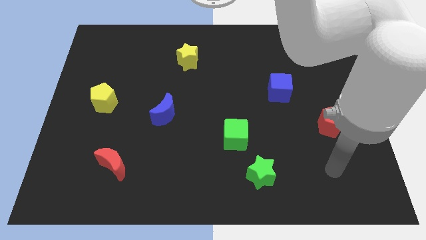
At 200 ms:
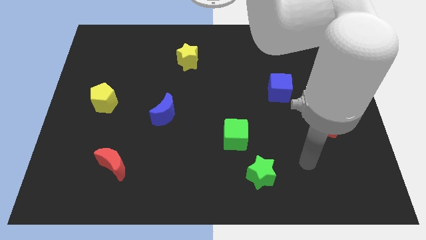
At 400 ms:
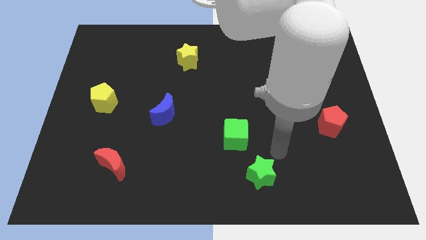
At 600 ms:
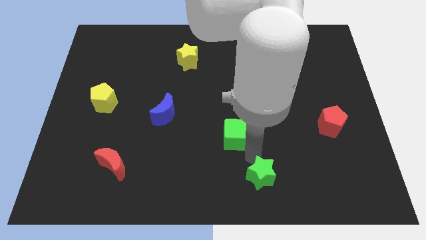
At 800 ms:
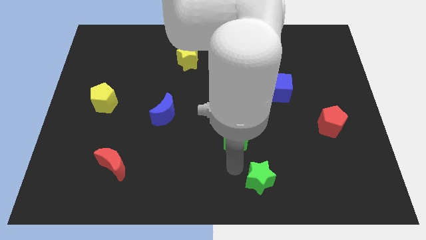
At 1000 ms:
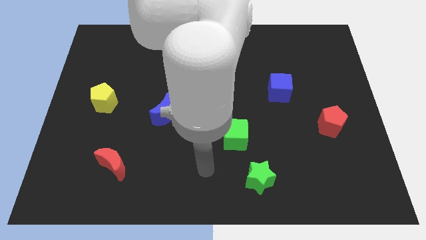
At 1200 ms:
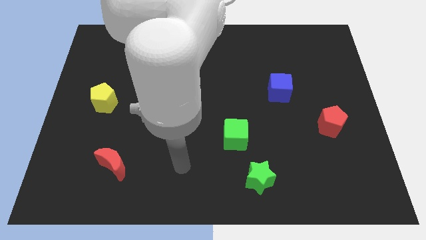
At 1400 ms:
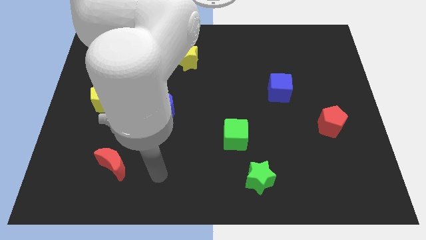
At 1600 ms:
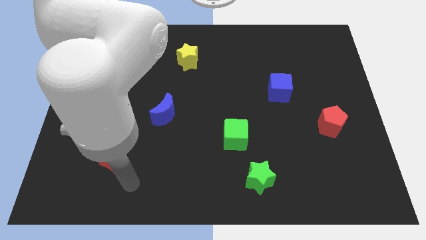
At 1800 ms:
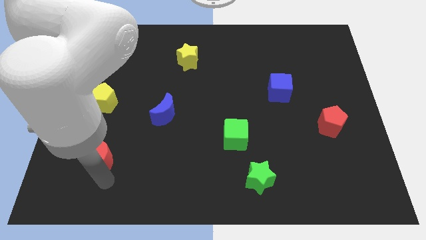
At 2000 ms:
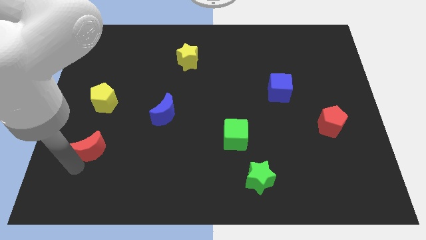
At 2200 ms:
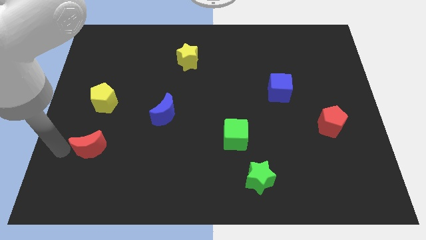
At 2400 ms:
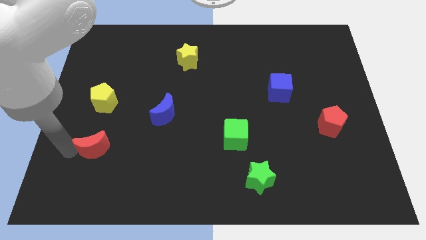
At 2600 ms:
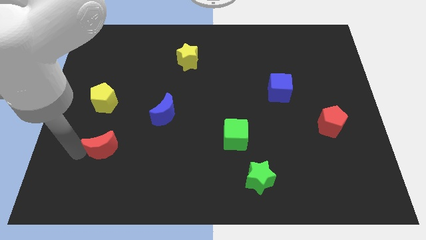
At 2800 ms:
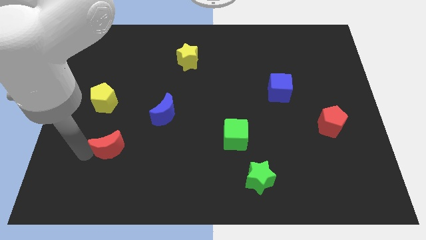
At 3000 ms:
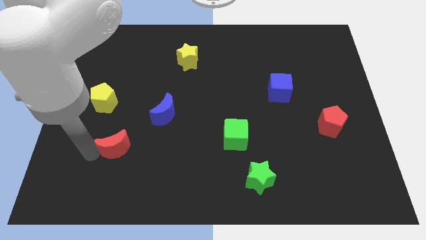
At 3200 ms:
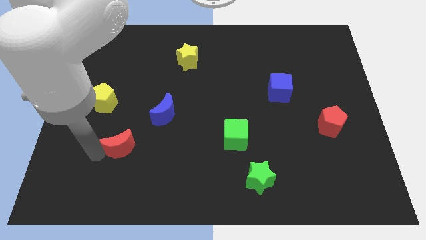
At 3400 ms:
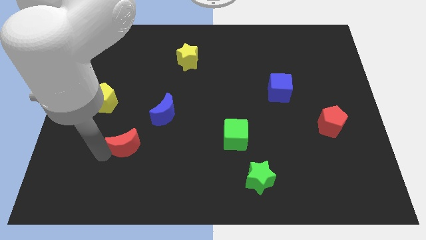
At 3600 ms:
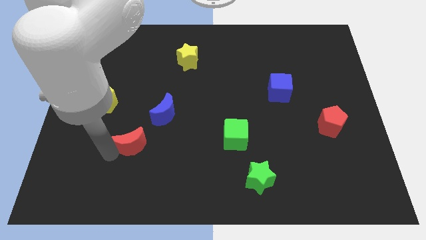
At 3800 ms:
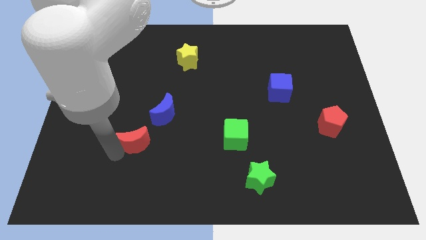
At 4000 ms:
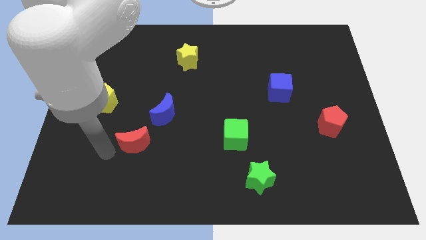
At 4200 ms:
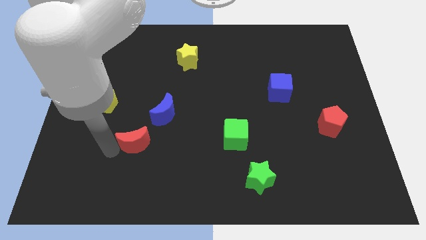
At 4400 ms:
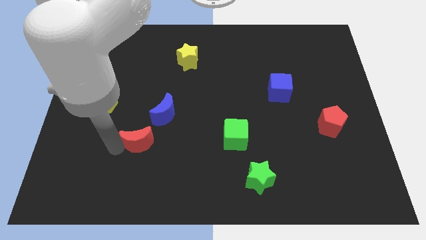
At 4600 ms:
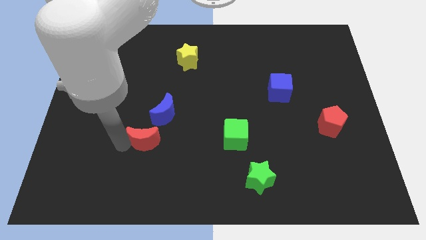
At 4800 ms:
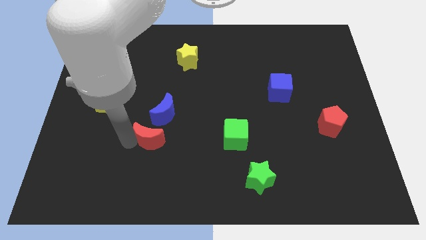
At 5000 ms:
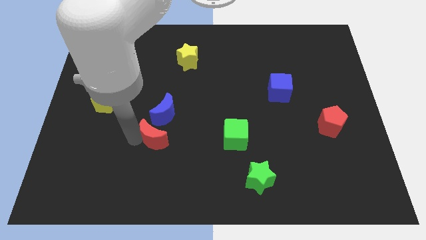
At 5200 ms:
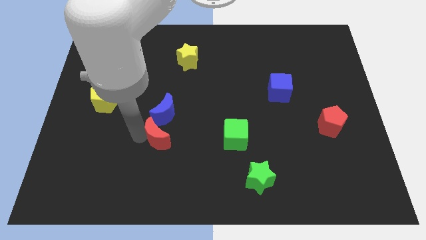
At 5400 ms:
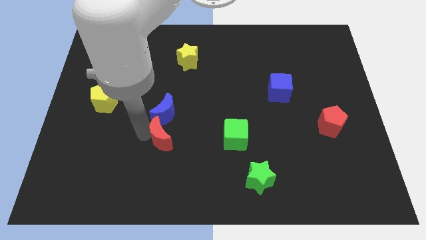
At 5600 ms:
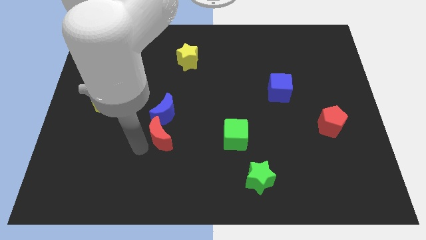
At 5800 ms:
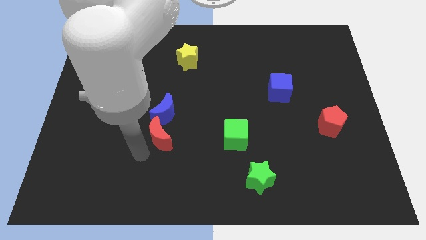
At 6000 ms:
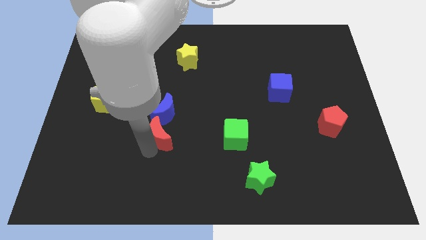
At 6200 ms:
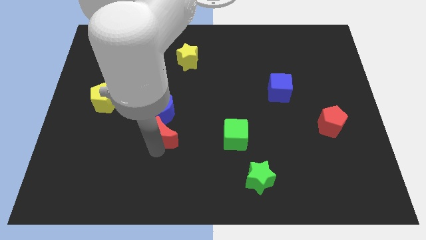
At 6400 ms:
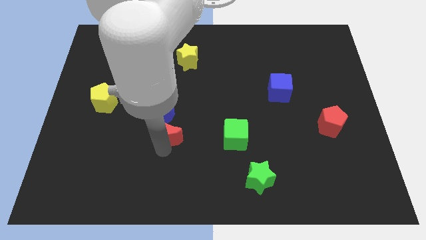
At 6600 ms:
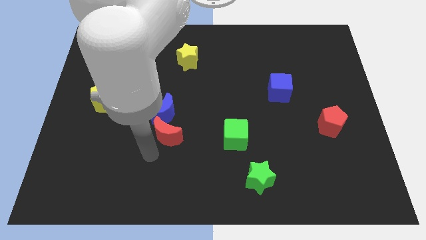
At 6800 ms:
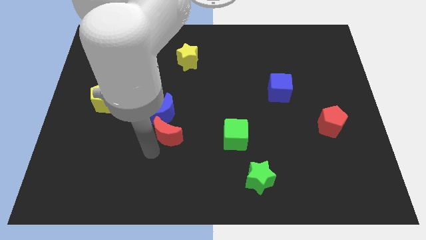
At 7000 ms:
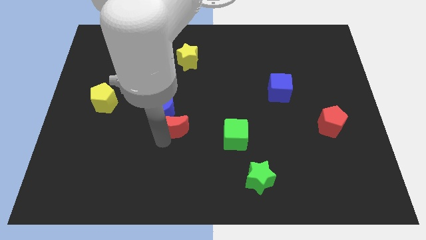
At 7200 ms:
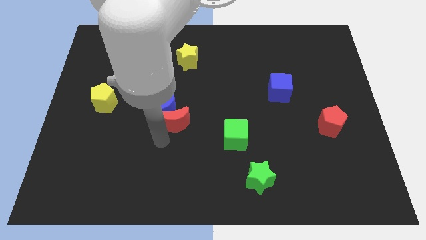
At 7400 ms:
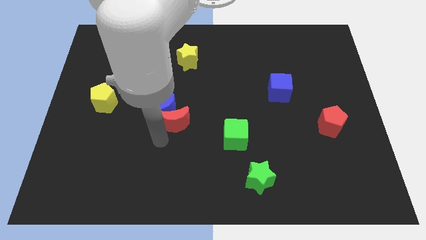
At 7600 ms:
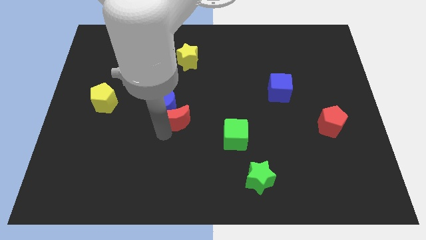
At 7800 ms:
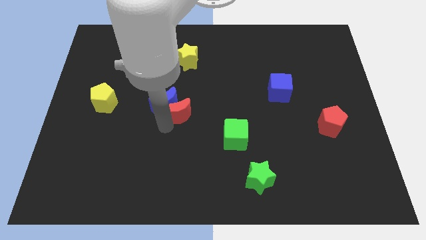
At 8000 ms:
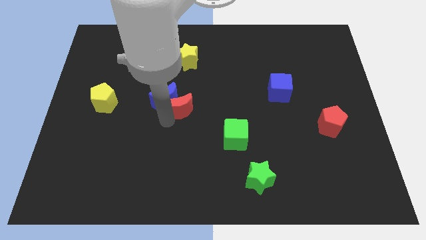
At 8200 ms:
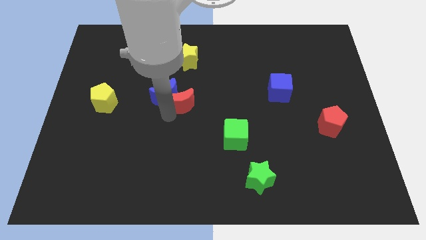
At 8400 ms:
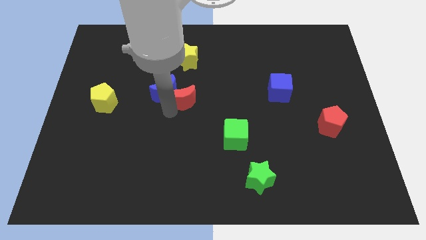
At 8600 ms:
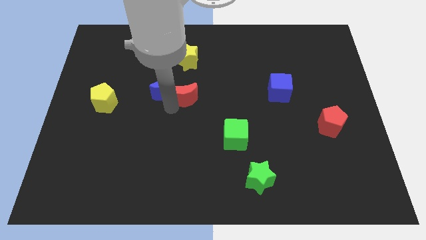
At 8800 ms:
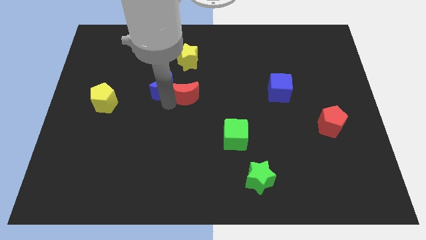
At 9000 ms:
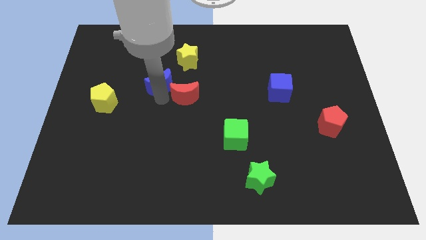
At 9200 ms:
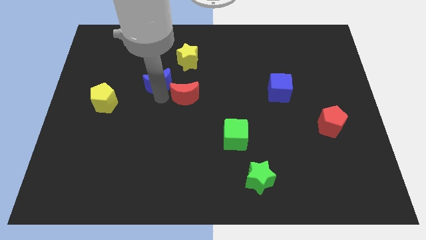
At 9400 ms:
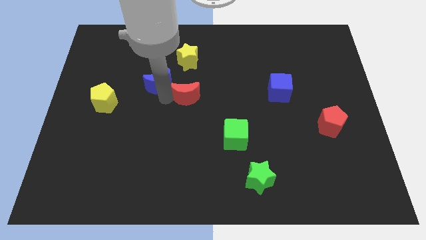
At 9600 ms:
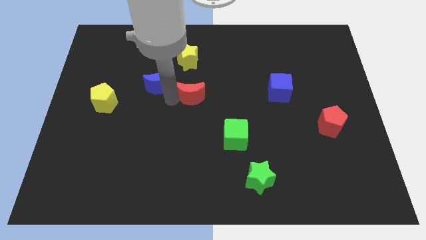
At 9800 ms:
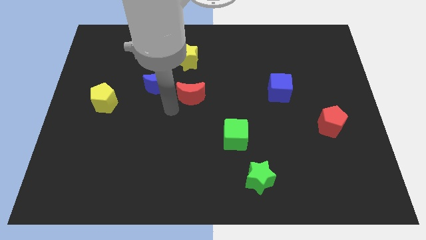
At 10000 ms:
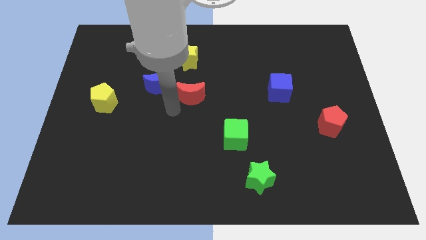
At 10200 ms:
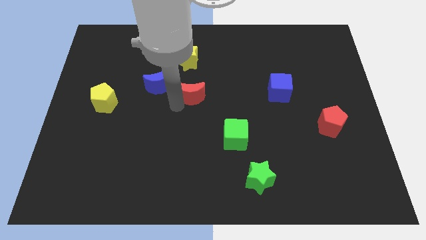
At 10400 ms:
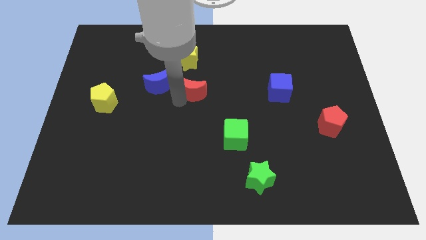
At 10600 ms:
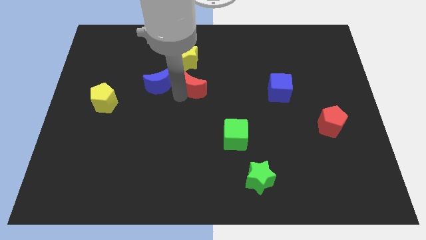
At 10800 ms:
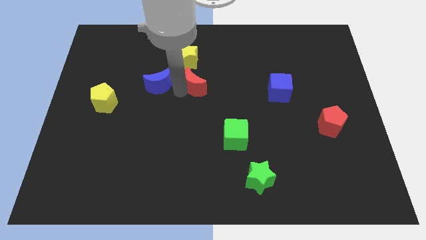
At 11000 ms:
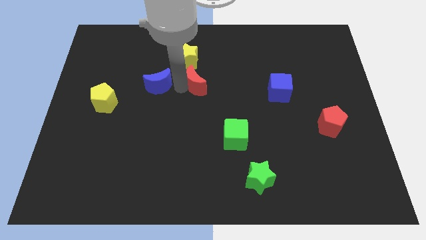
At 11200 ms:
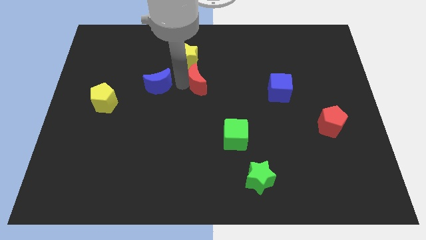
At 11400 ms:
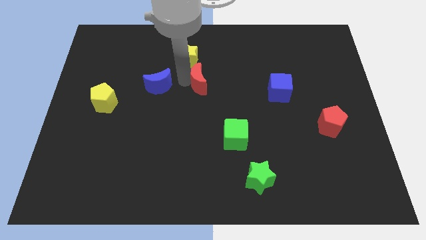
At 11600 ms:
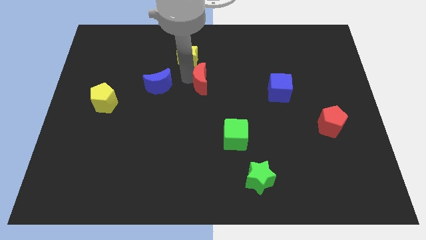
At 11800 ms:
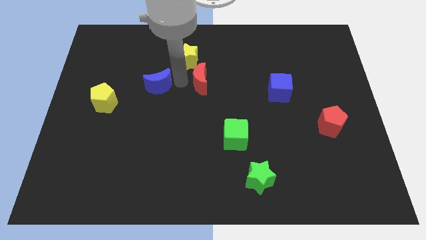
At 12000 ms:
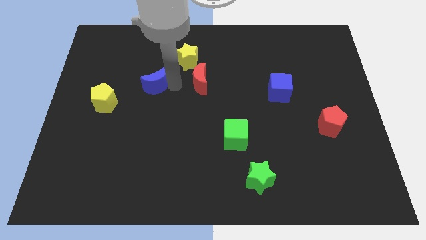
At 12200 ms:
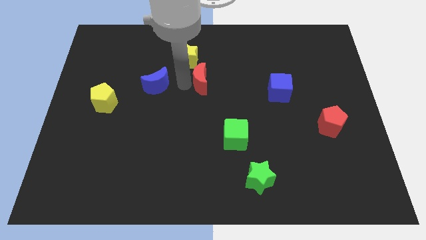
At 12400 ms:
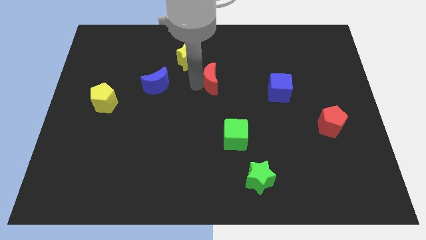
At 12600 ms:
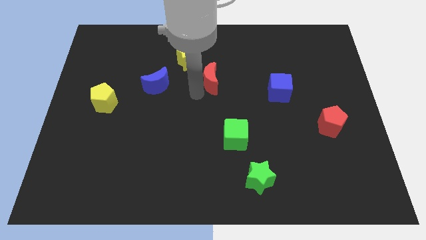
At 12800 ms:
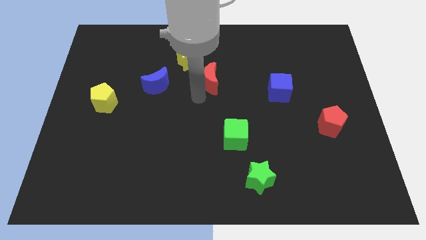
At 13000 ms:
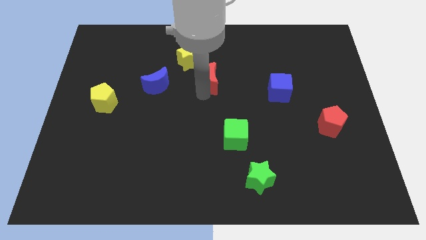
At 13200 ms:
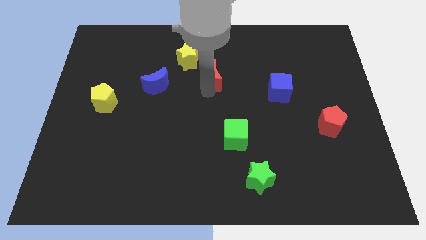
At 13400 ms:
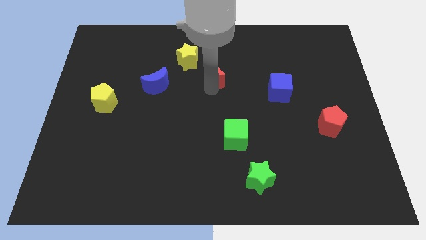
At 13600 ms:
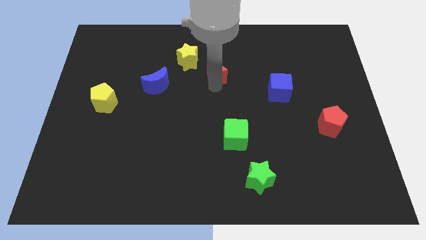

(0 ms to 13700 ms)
push the red moon to the right of the yellow star
